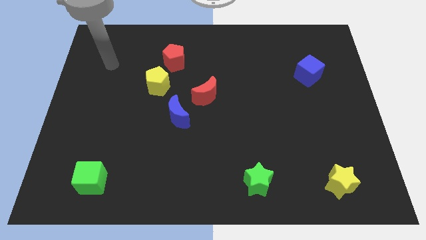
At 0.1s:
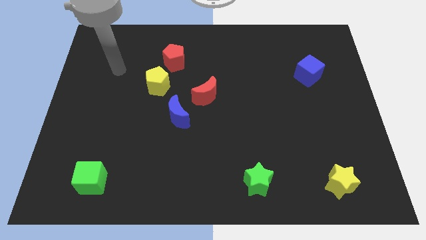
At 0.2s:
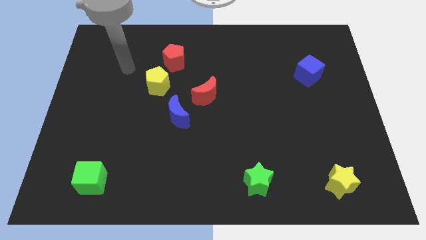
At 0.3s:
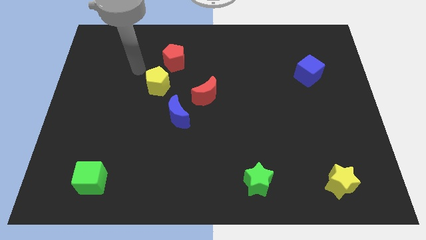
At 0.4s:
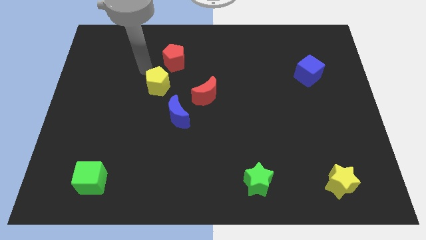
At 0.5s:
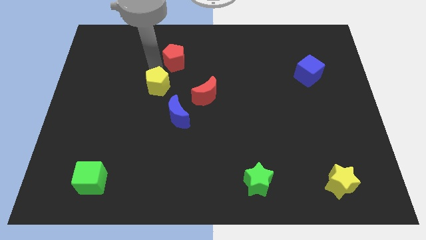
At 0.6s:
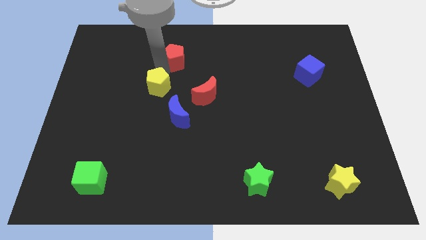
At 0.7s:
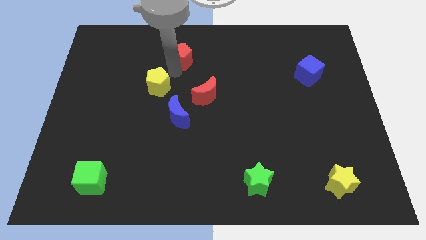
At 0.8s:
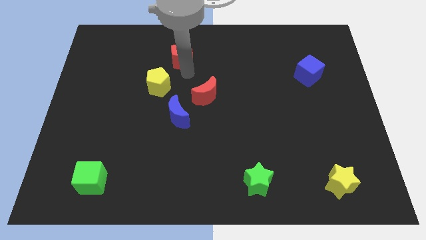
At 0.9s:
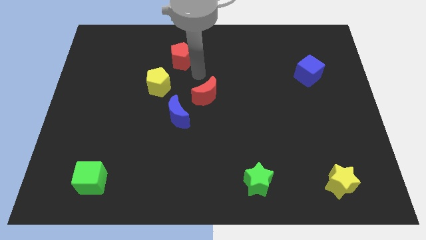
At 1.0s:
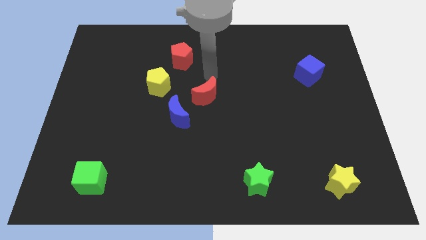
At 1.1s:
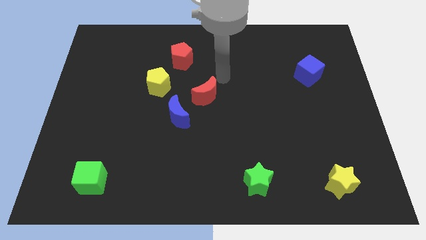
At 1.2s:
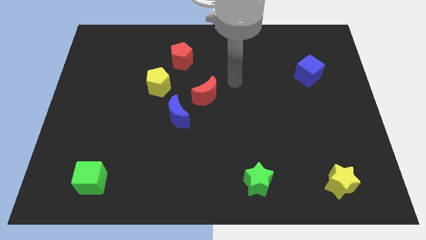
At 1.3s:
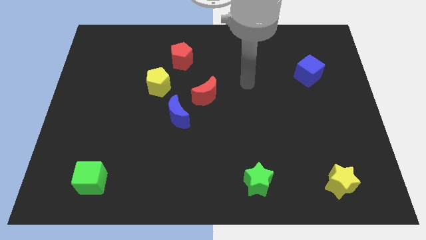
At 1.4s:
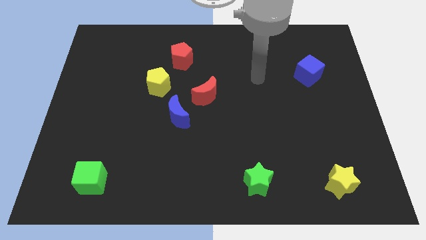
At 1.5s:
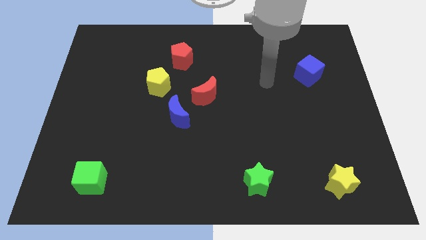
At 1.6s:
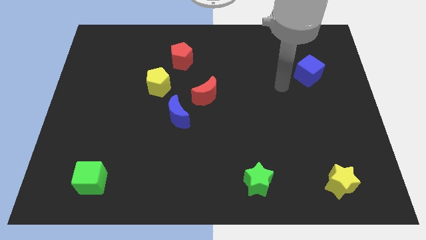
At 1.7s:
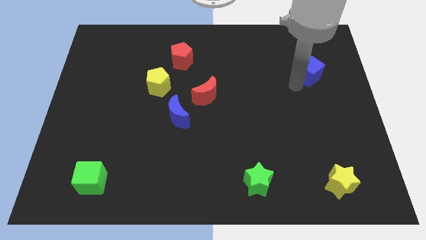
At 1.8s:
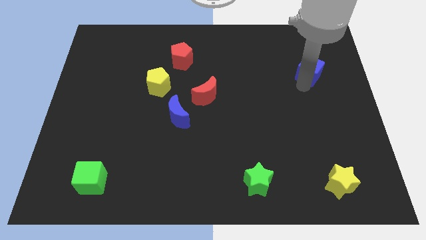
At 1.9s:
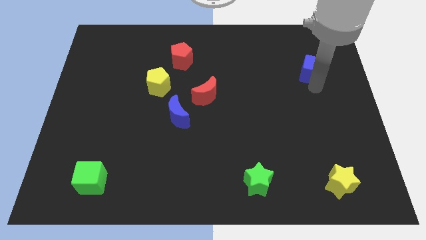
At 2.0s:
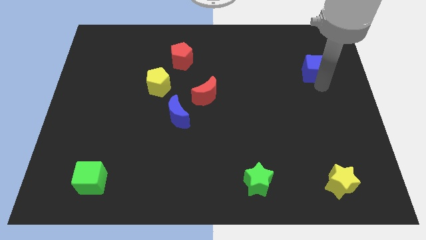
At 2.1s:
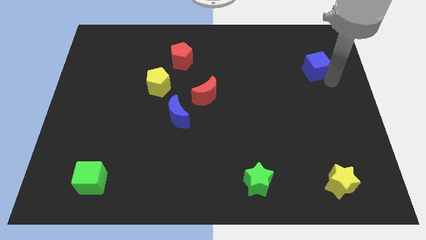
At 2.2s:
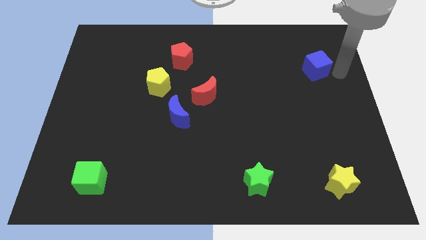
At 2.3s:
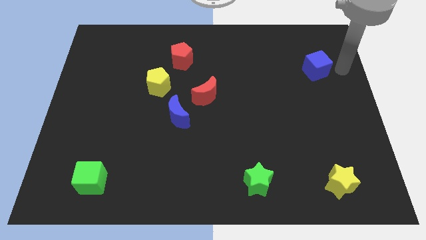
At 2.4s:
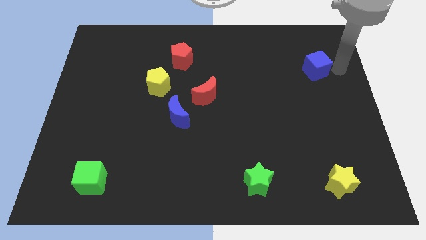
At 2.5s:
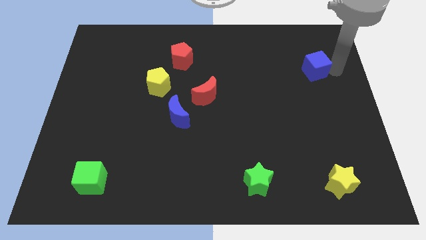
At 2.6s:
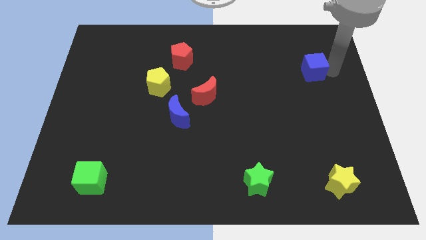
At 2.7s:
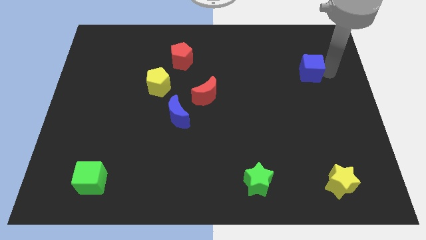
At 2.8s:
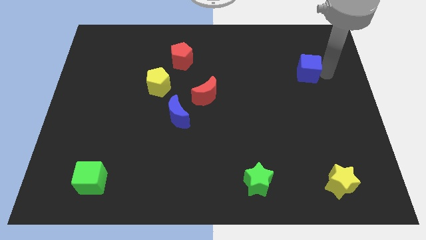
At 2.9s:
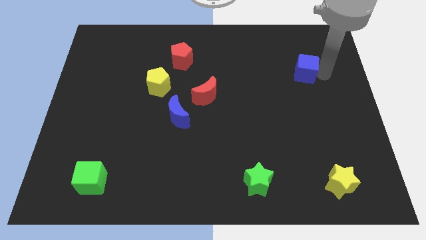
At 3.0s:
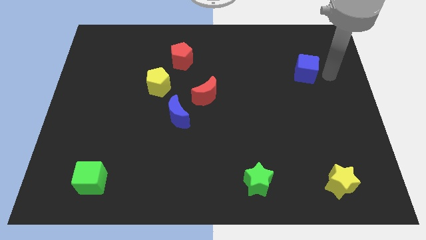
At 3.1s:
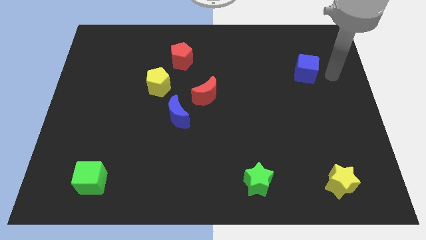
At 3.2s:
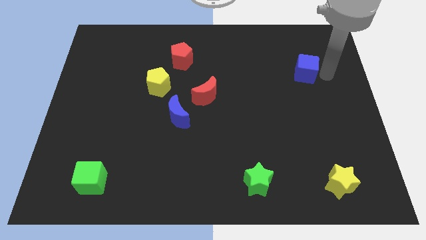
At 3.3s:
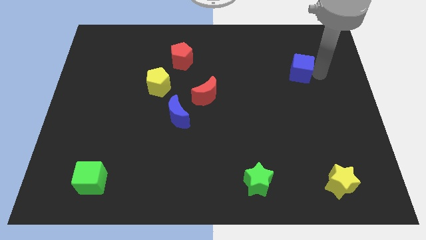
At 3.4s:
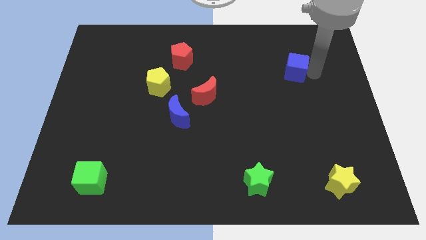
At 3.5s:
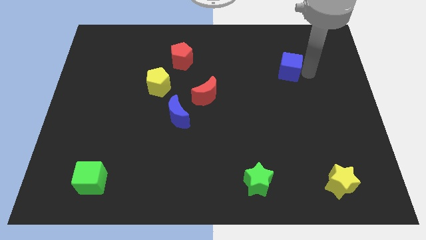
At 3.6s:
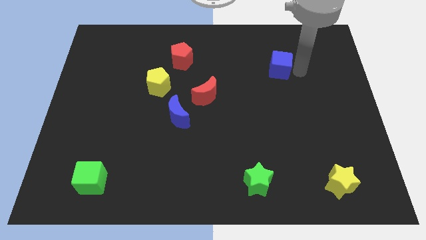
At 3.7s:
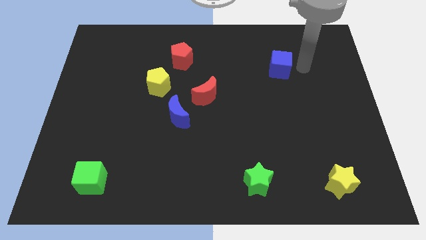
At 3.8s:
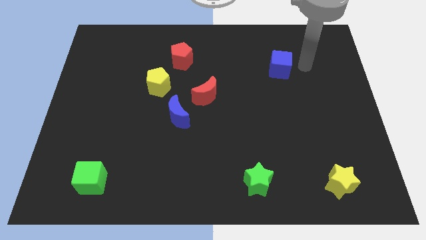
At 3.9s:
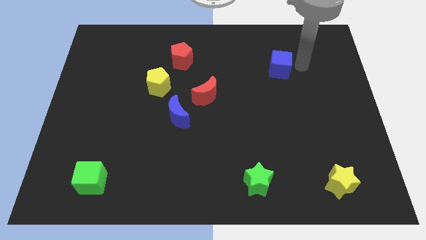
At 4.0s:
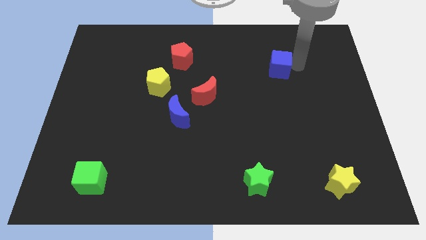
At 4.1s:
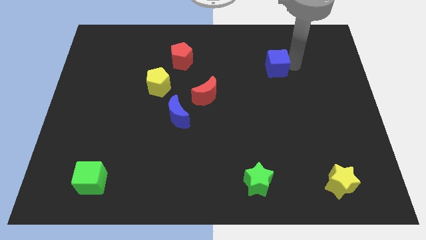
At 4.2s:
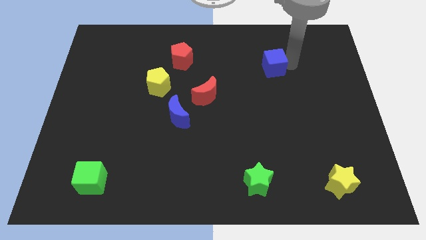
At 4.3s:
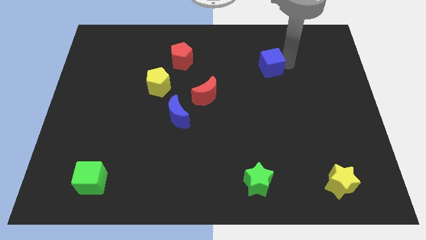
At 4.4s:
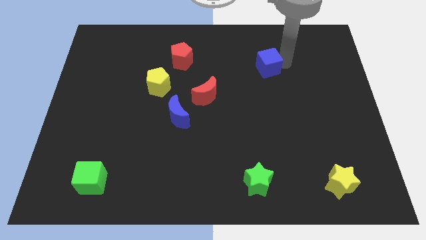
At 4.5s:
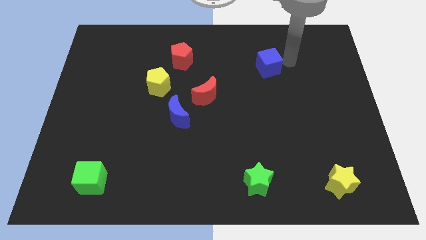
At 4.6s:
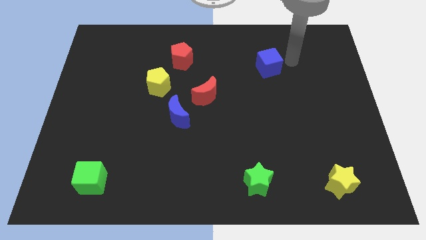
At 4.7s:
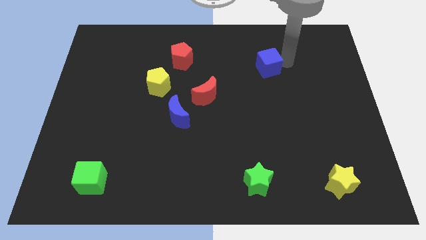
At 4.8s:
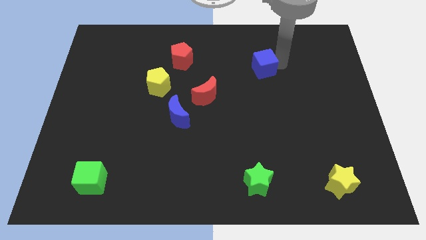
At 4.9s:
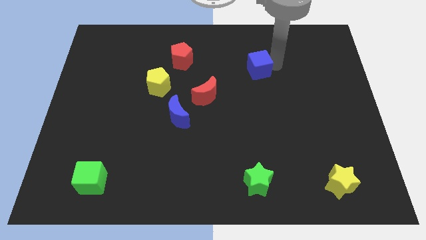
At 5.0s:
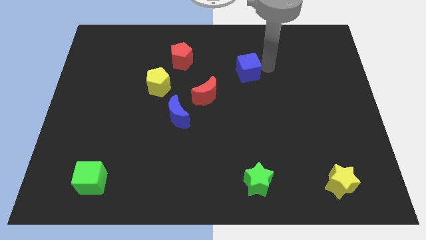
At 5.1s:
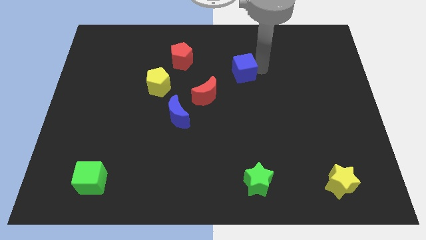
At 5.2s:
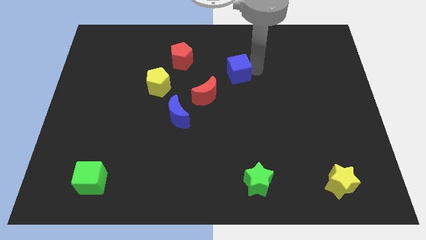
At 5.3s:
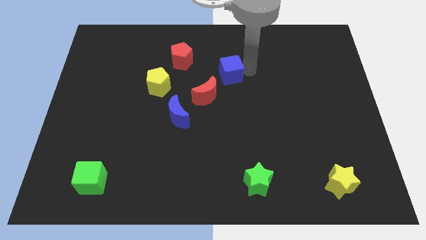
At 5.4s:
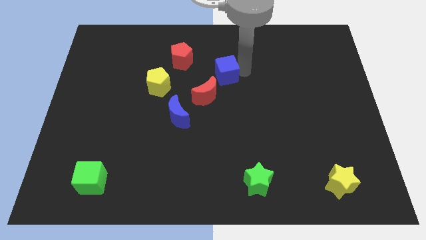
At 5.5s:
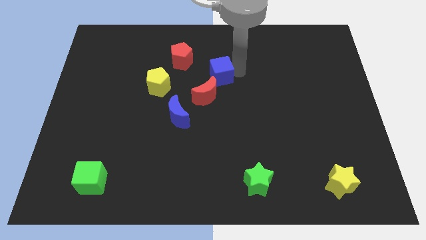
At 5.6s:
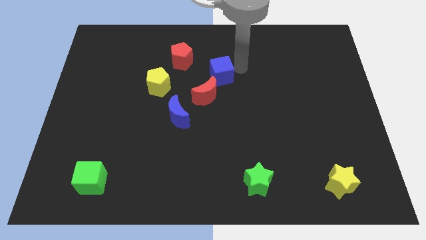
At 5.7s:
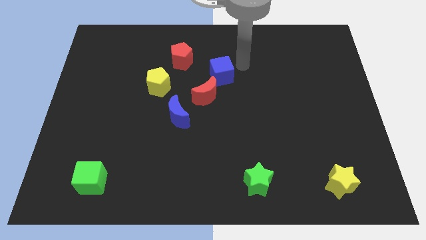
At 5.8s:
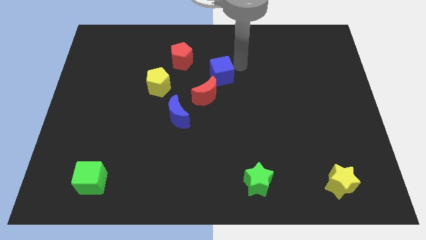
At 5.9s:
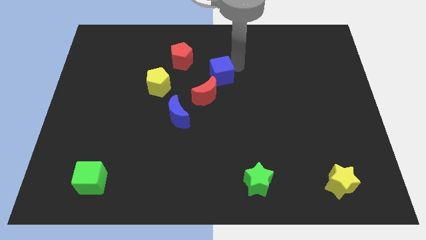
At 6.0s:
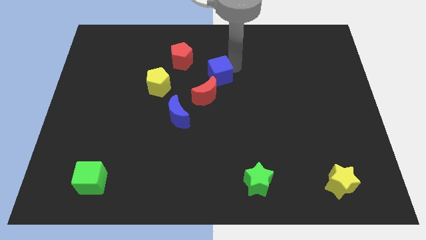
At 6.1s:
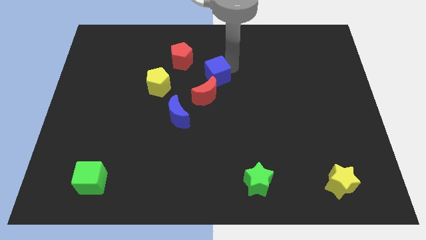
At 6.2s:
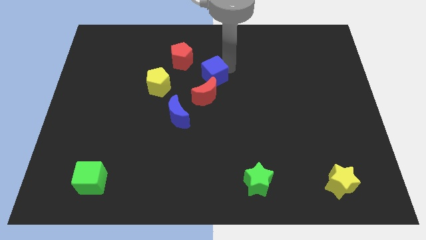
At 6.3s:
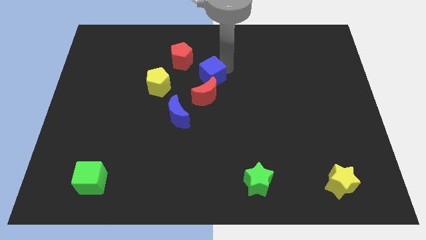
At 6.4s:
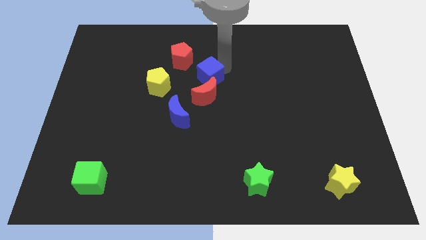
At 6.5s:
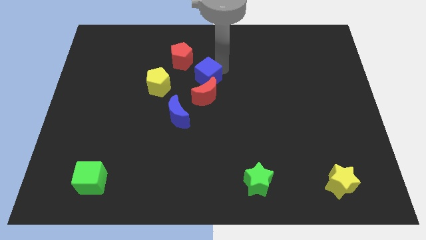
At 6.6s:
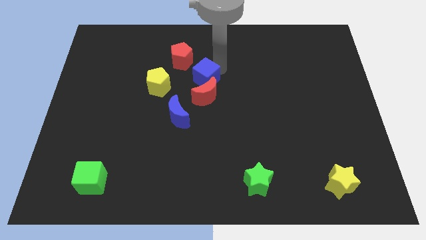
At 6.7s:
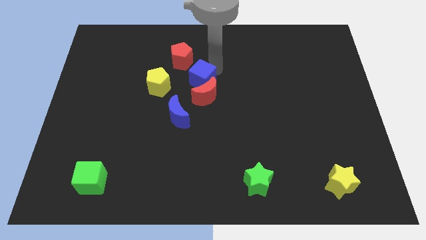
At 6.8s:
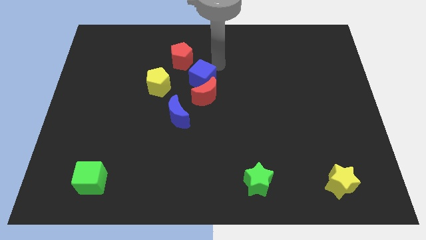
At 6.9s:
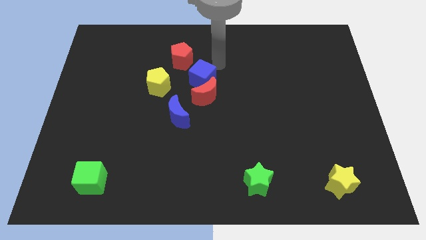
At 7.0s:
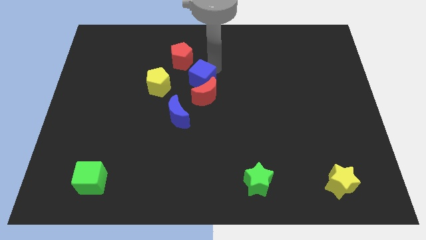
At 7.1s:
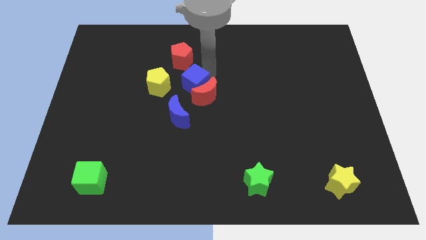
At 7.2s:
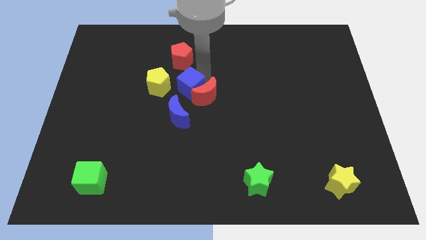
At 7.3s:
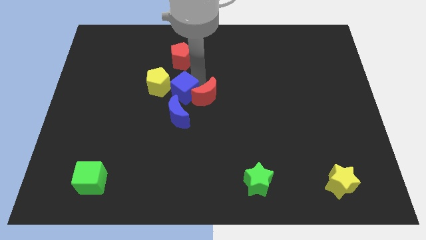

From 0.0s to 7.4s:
slide the blue cube diagonally down and to the right of the yellow pentagon
